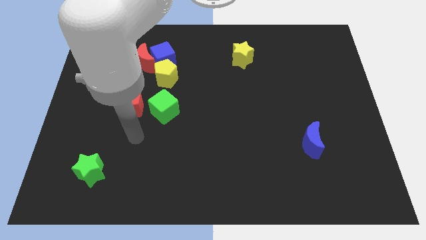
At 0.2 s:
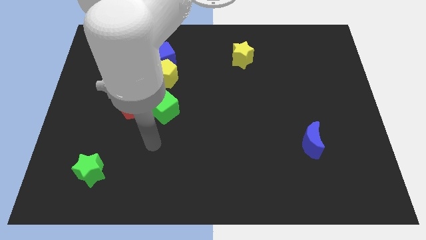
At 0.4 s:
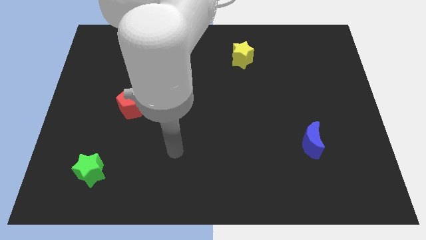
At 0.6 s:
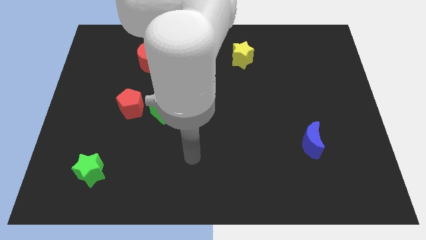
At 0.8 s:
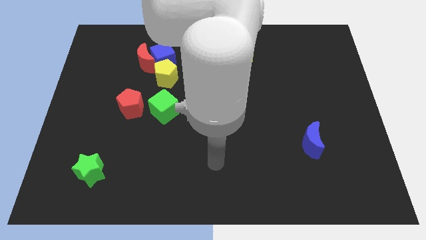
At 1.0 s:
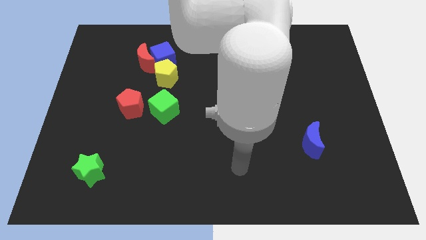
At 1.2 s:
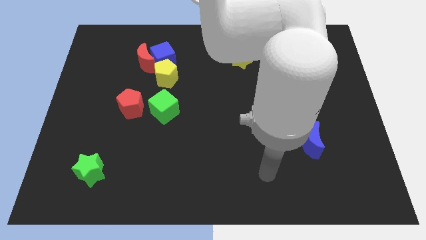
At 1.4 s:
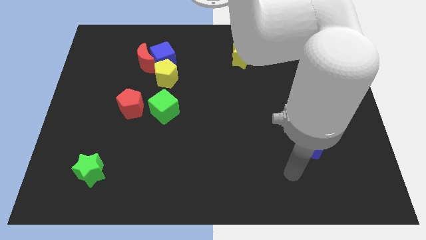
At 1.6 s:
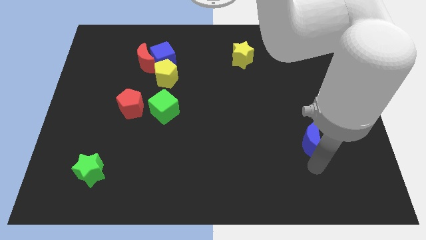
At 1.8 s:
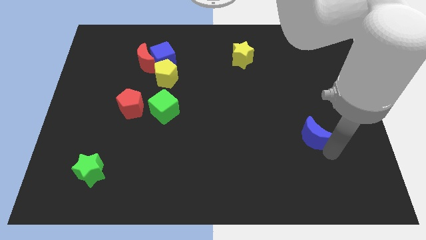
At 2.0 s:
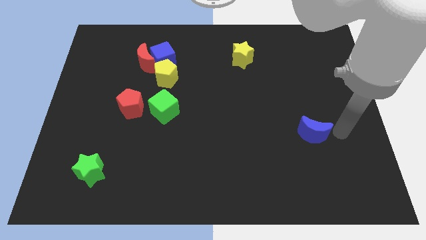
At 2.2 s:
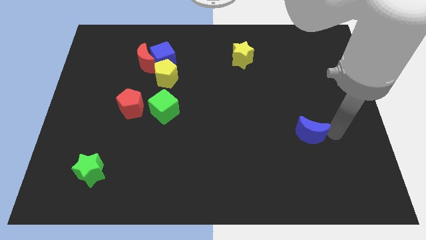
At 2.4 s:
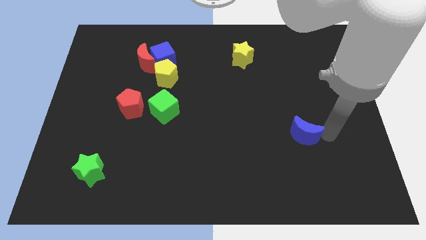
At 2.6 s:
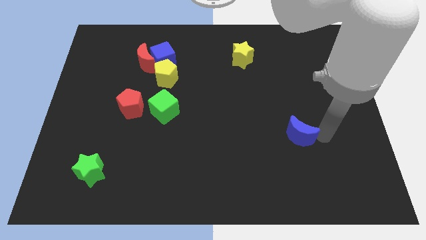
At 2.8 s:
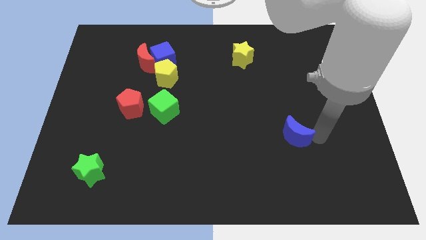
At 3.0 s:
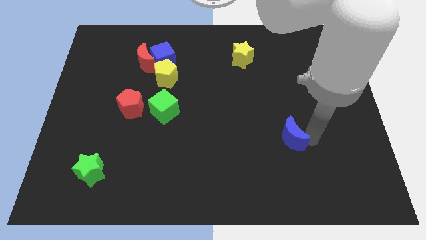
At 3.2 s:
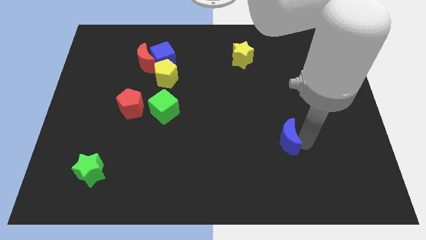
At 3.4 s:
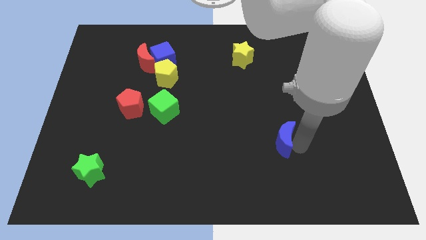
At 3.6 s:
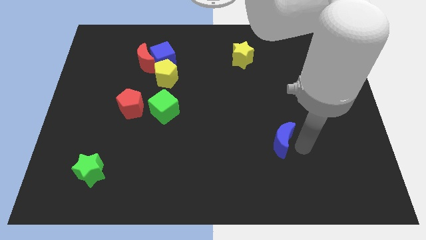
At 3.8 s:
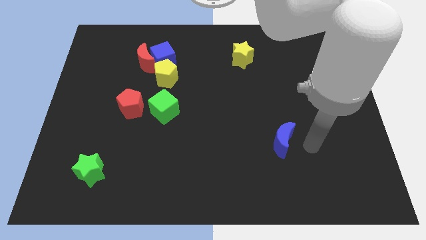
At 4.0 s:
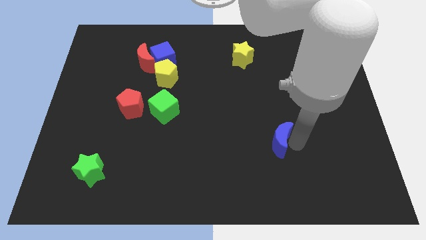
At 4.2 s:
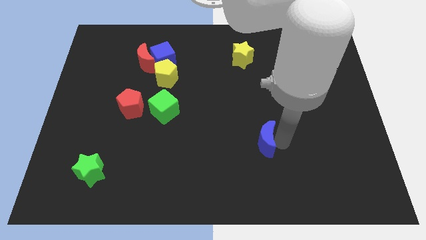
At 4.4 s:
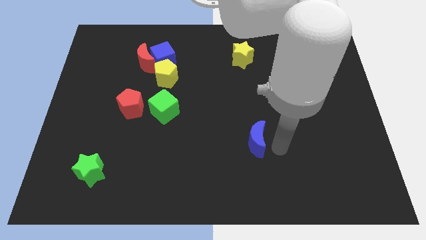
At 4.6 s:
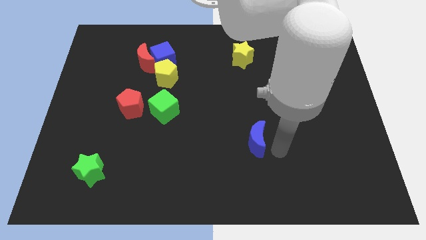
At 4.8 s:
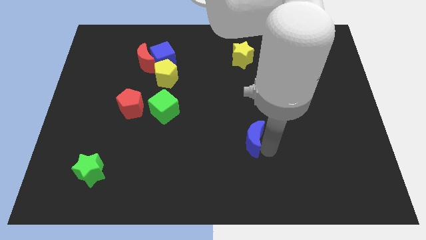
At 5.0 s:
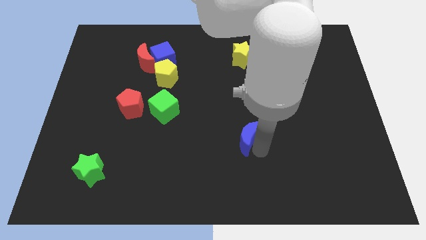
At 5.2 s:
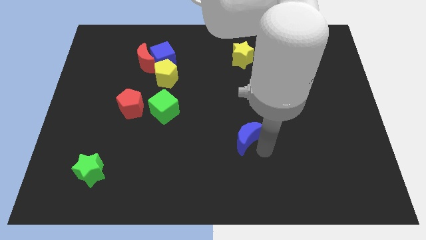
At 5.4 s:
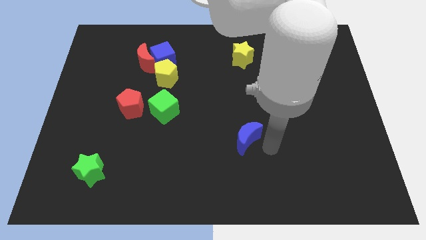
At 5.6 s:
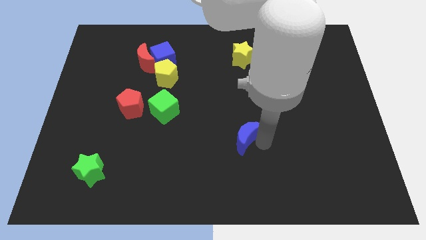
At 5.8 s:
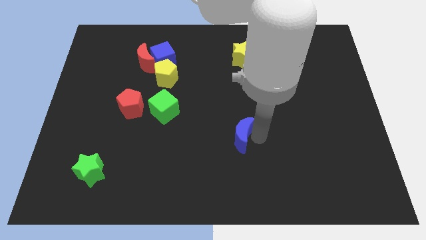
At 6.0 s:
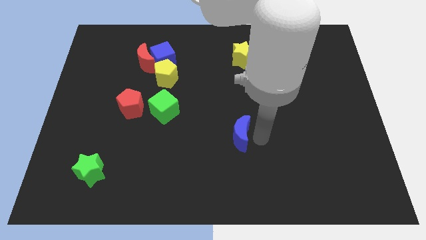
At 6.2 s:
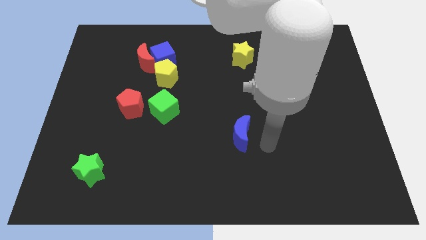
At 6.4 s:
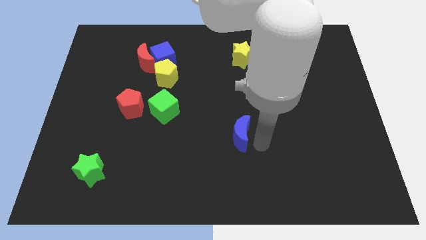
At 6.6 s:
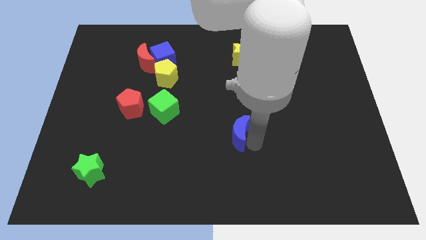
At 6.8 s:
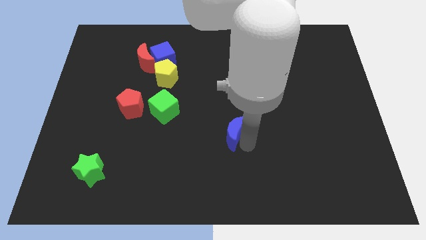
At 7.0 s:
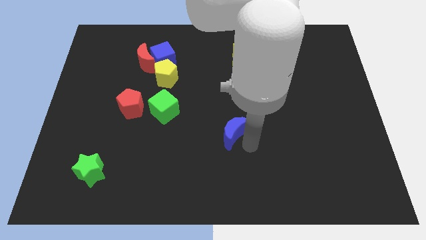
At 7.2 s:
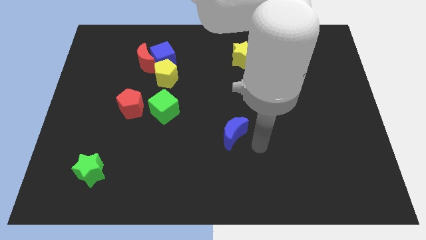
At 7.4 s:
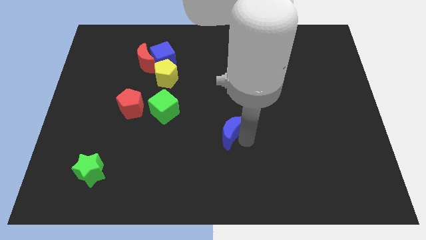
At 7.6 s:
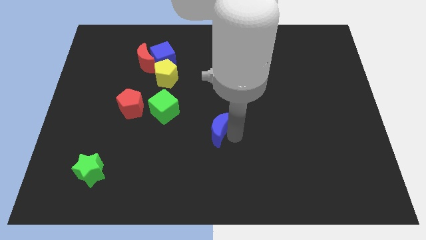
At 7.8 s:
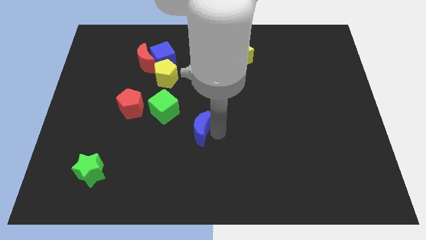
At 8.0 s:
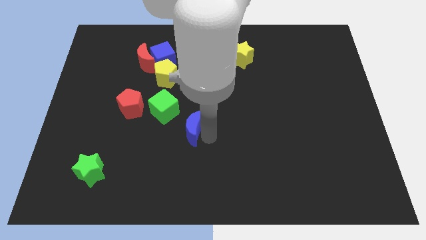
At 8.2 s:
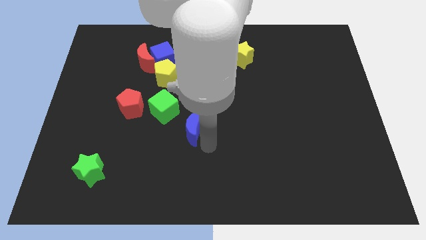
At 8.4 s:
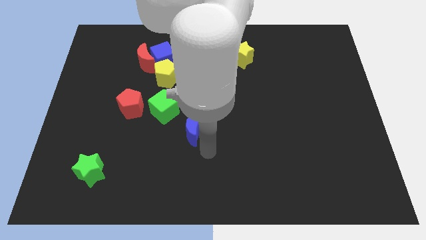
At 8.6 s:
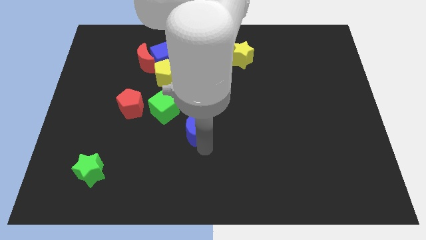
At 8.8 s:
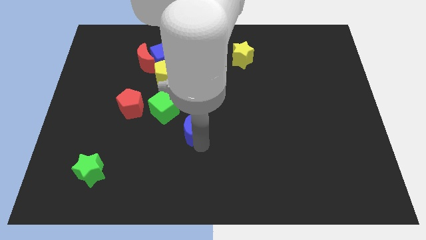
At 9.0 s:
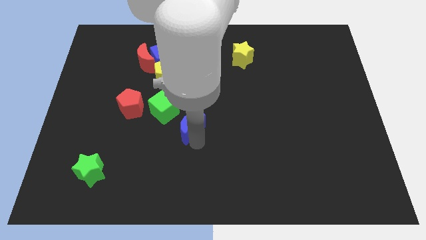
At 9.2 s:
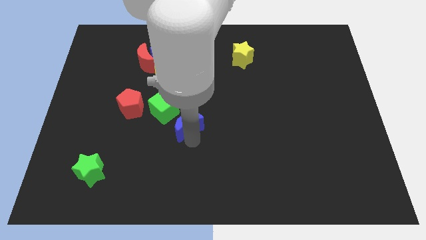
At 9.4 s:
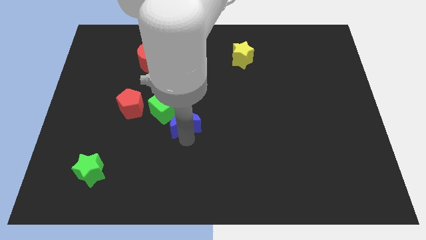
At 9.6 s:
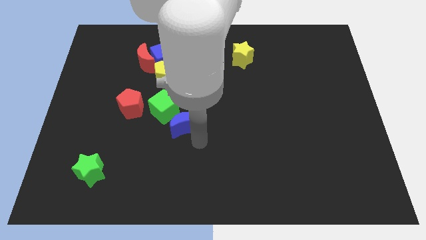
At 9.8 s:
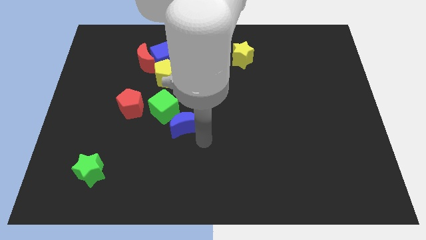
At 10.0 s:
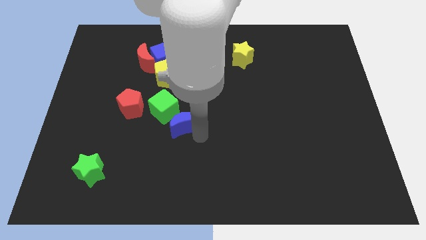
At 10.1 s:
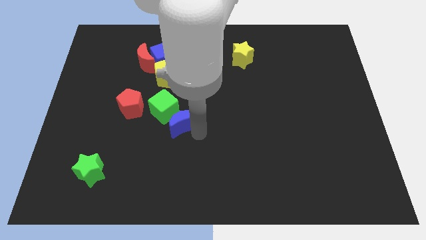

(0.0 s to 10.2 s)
slide the blue moon next to the green cube

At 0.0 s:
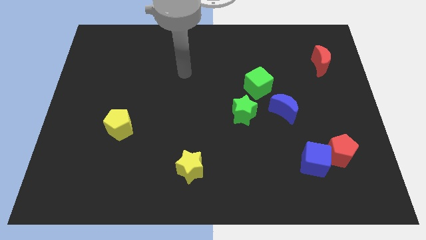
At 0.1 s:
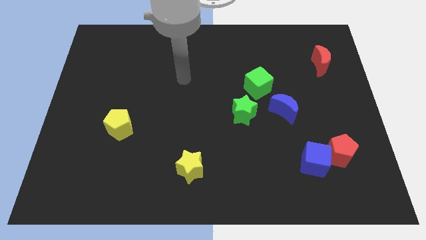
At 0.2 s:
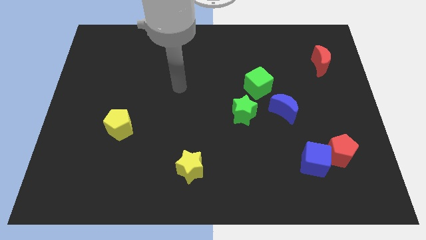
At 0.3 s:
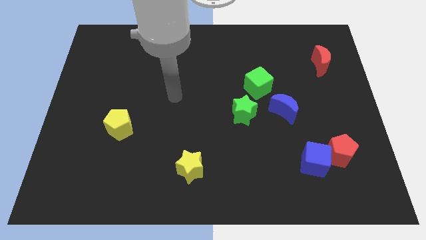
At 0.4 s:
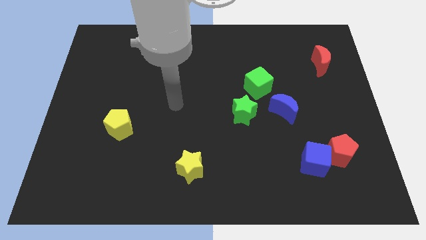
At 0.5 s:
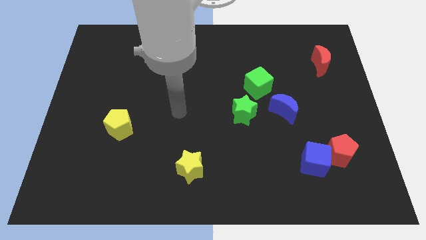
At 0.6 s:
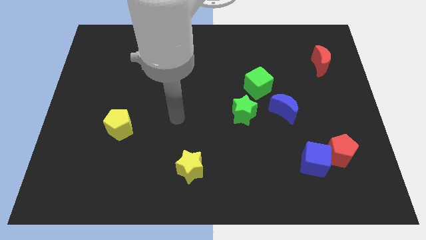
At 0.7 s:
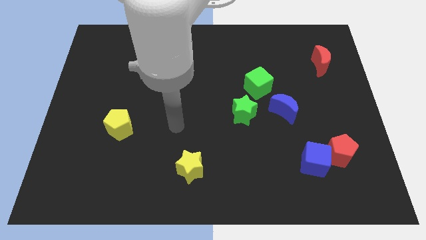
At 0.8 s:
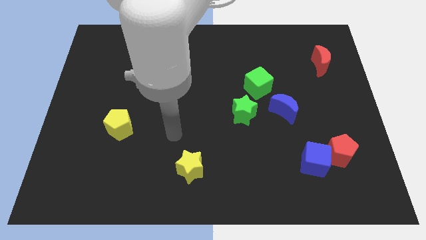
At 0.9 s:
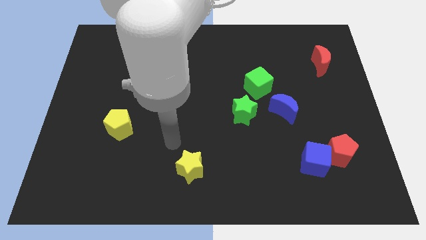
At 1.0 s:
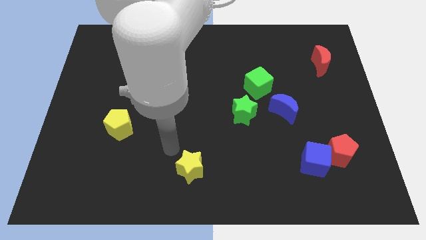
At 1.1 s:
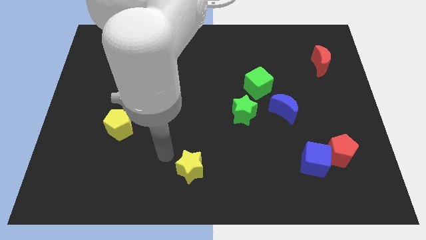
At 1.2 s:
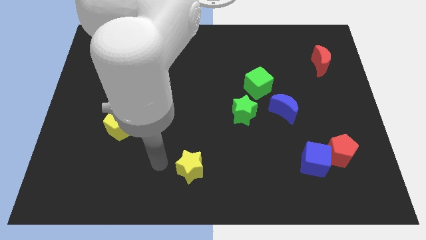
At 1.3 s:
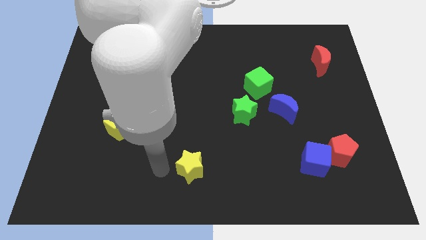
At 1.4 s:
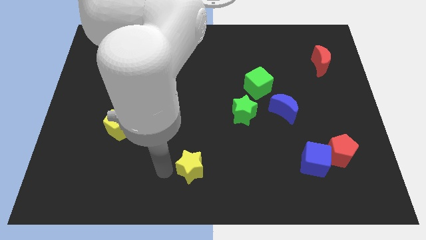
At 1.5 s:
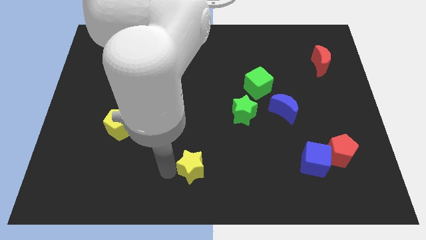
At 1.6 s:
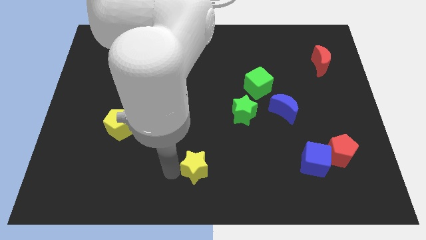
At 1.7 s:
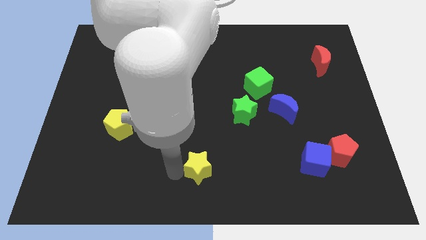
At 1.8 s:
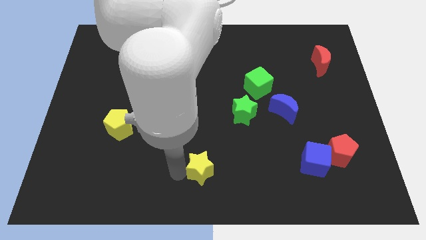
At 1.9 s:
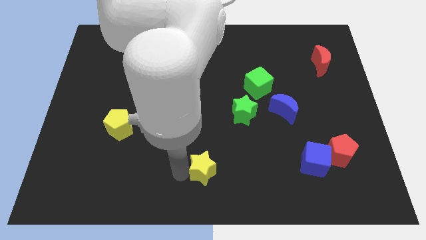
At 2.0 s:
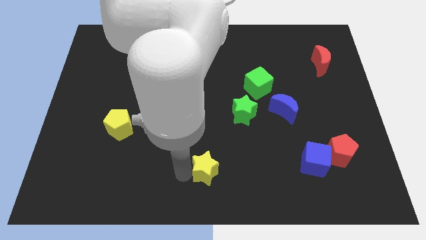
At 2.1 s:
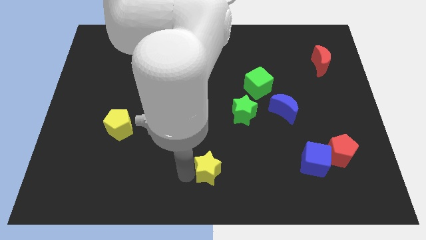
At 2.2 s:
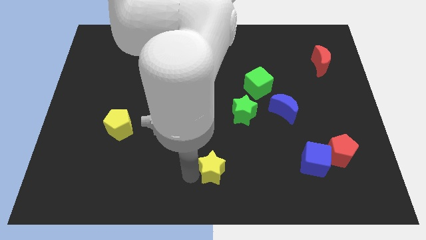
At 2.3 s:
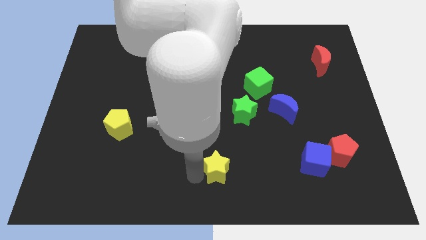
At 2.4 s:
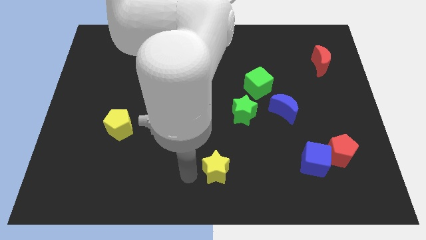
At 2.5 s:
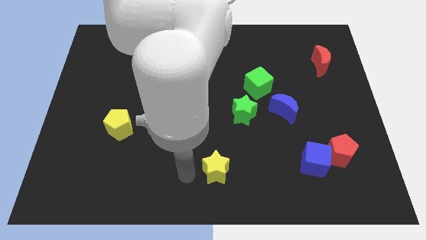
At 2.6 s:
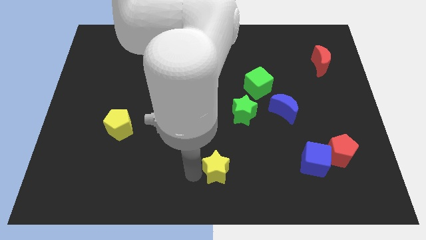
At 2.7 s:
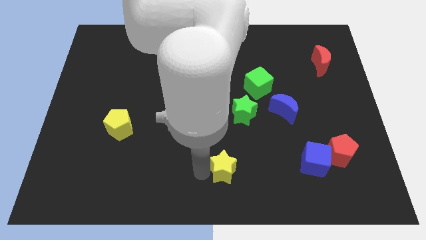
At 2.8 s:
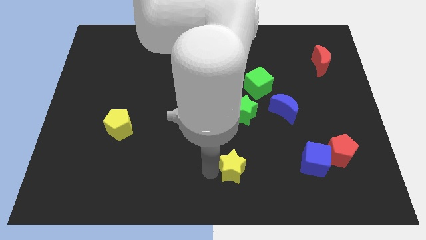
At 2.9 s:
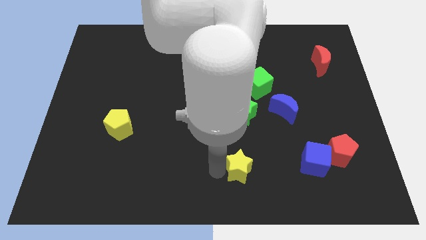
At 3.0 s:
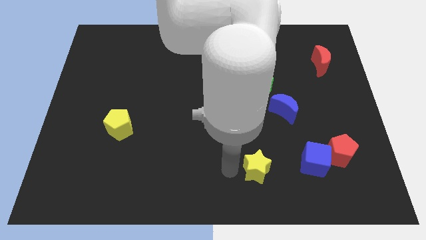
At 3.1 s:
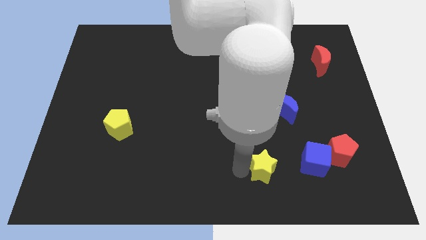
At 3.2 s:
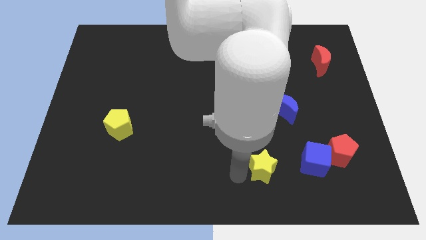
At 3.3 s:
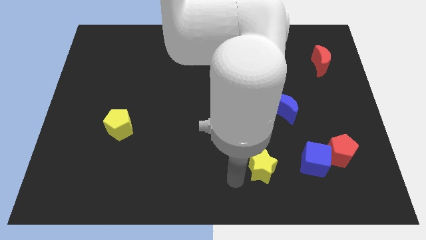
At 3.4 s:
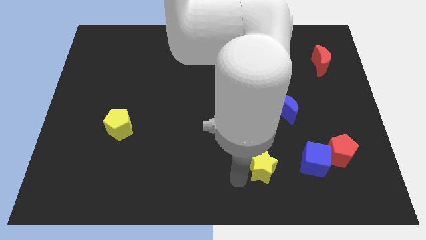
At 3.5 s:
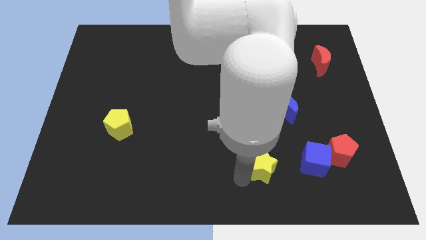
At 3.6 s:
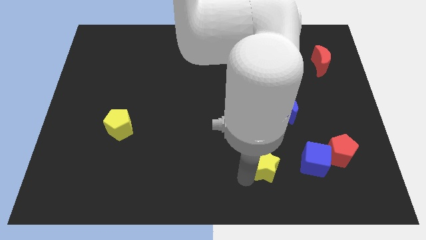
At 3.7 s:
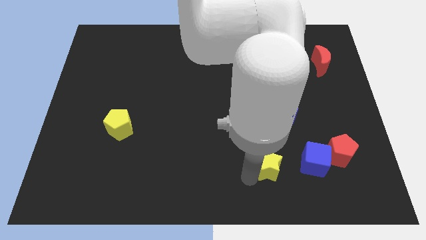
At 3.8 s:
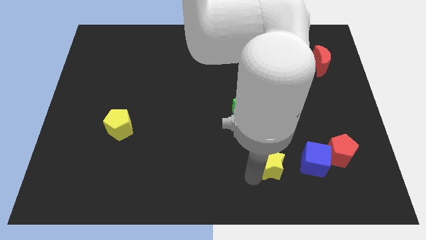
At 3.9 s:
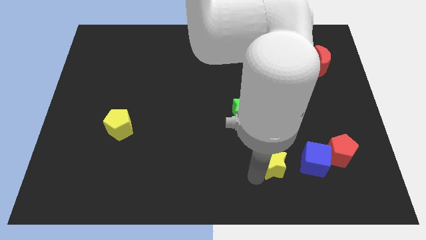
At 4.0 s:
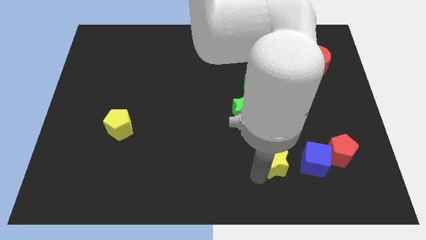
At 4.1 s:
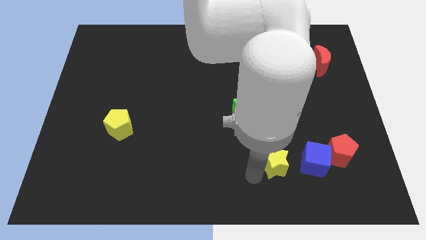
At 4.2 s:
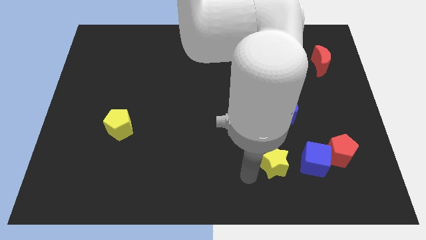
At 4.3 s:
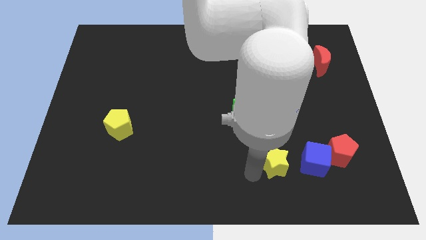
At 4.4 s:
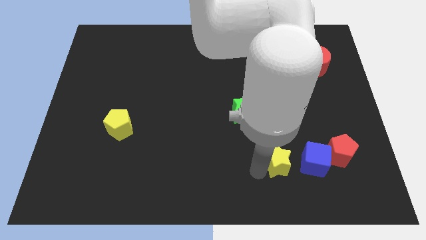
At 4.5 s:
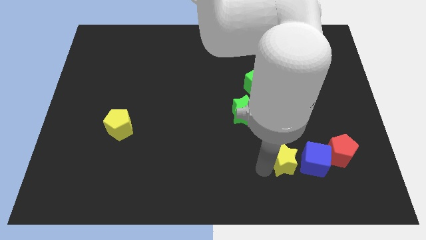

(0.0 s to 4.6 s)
push the yellow star towards the blue cube
